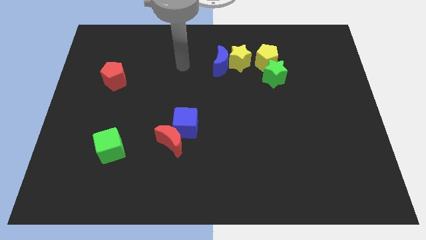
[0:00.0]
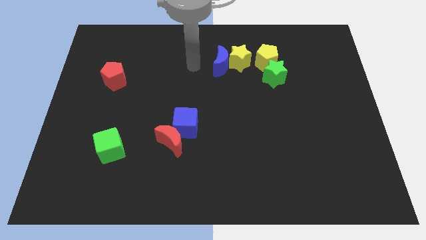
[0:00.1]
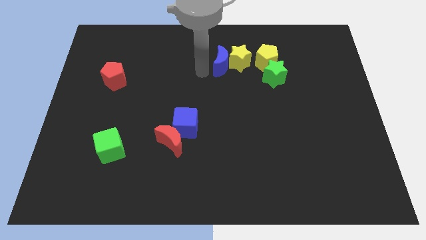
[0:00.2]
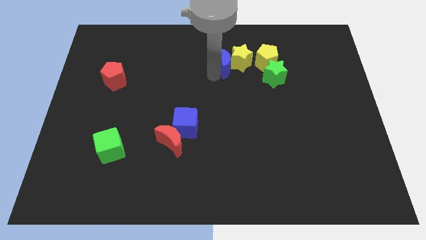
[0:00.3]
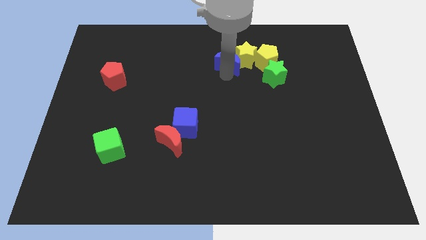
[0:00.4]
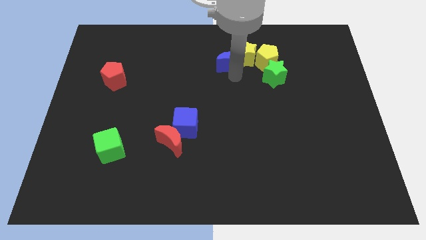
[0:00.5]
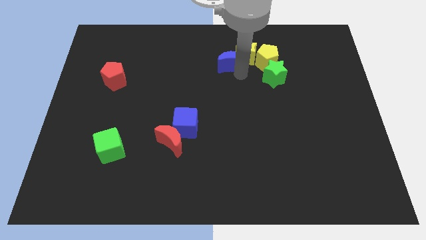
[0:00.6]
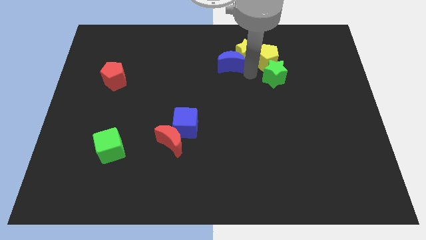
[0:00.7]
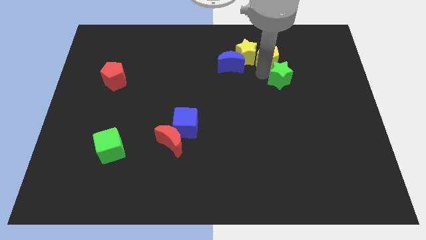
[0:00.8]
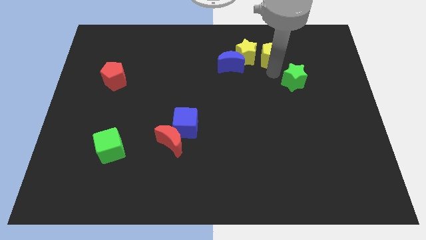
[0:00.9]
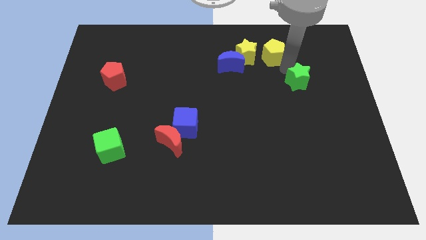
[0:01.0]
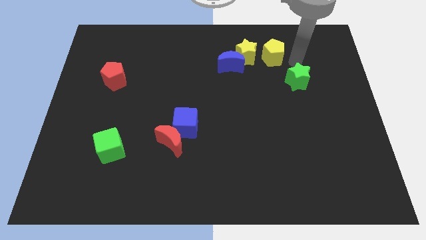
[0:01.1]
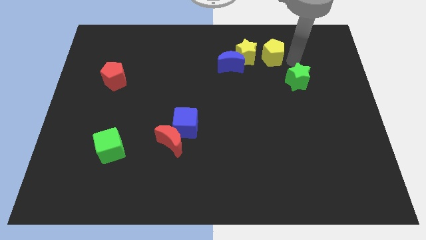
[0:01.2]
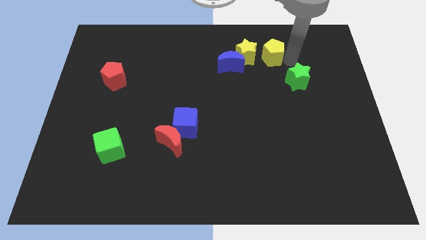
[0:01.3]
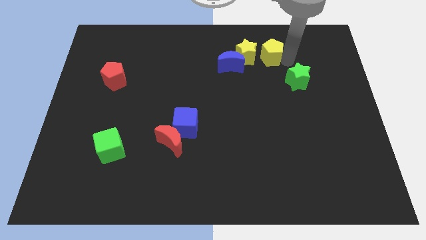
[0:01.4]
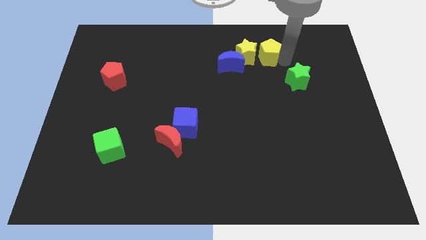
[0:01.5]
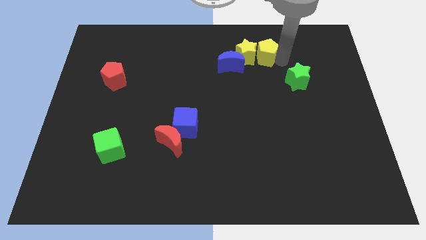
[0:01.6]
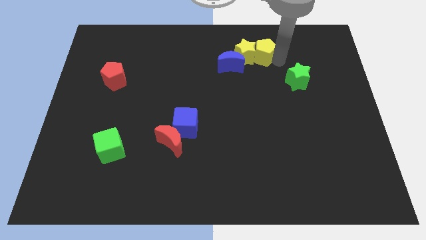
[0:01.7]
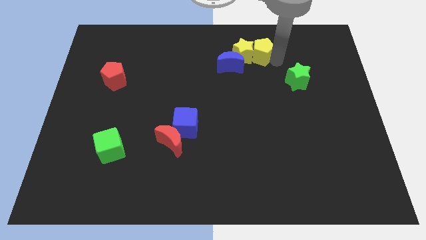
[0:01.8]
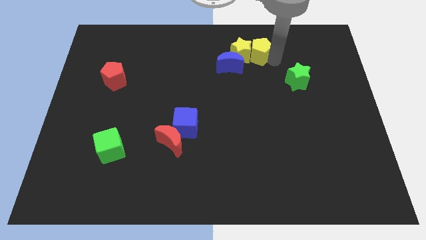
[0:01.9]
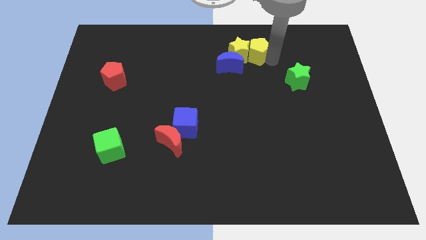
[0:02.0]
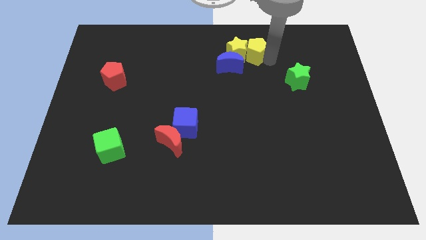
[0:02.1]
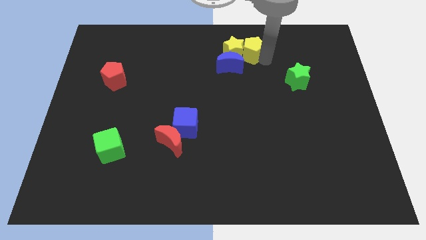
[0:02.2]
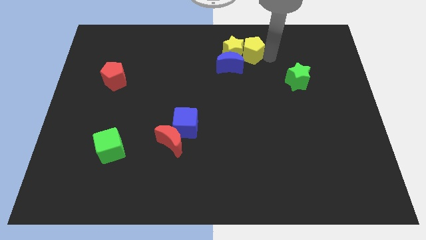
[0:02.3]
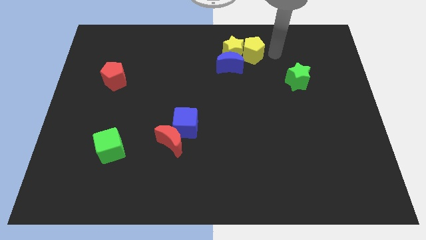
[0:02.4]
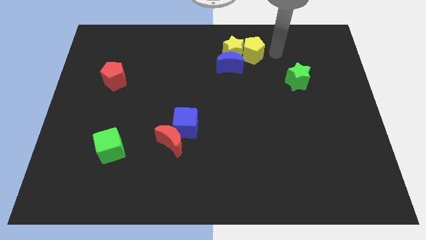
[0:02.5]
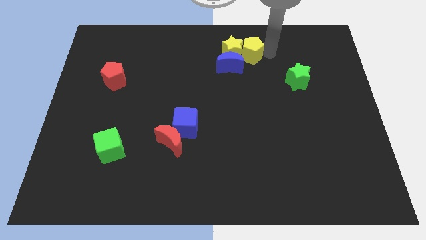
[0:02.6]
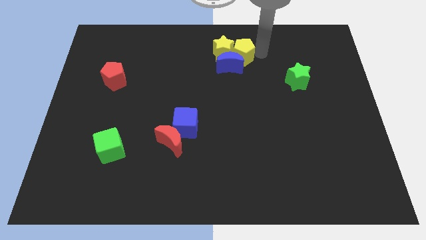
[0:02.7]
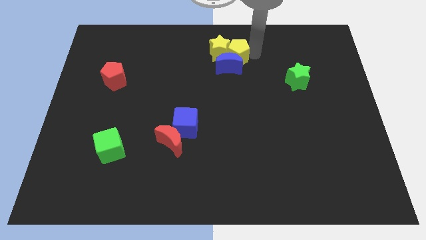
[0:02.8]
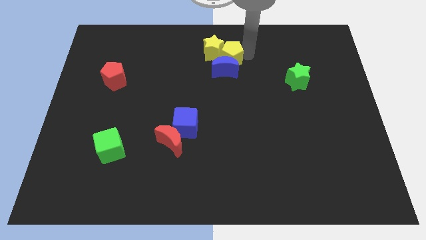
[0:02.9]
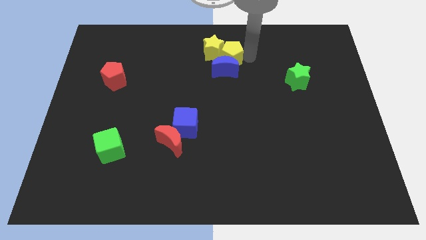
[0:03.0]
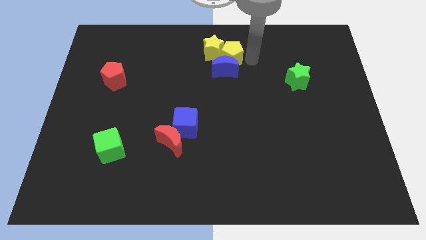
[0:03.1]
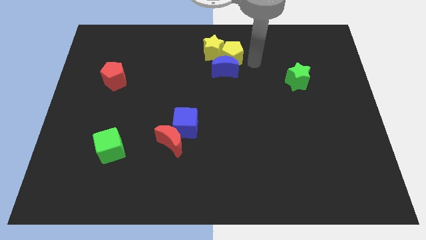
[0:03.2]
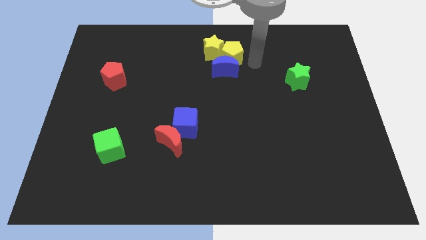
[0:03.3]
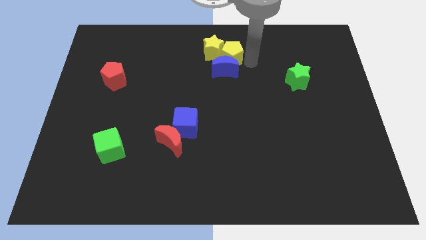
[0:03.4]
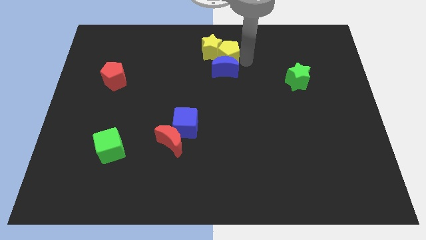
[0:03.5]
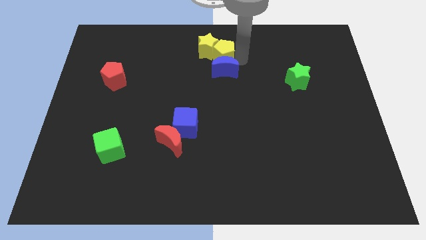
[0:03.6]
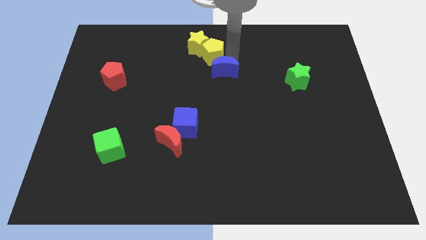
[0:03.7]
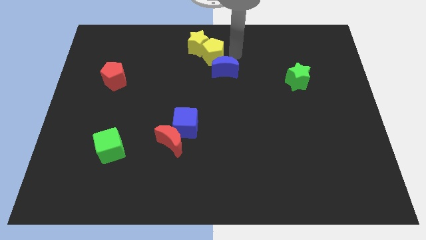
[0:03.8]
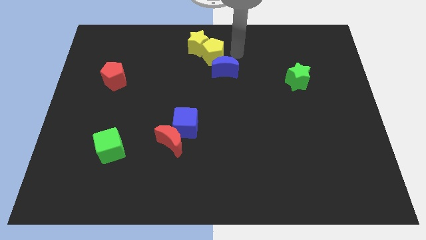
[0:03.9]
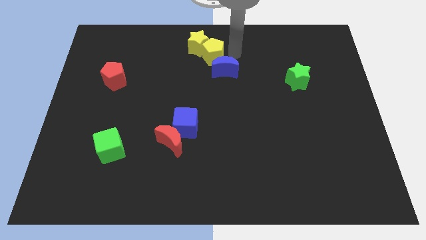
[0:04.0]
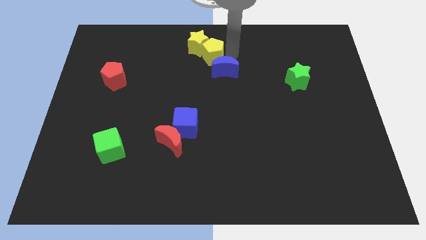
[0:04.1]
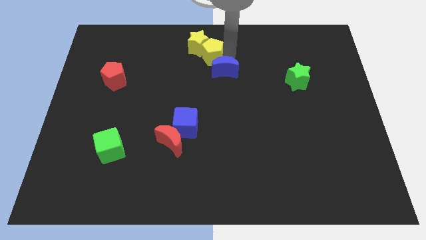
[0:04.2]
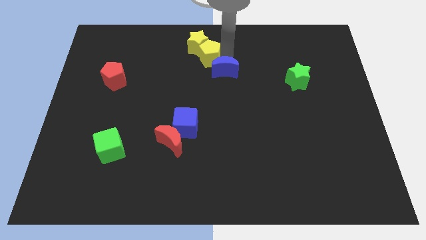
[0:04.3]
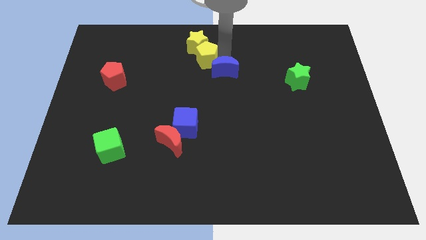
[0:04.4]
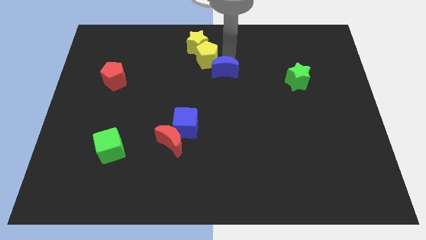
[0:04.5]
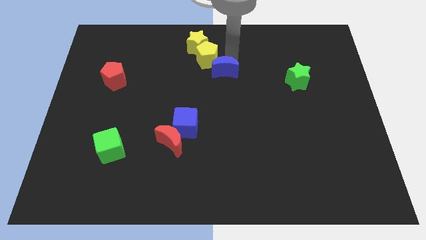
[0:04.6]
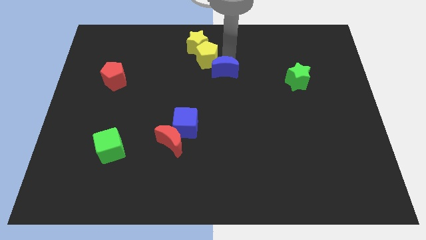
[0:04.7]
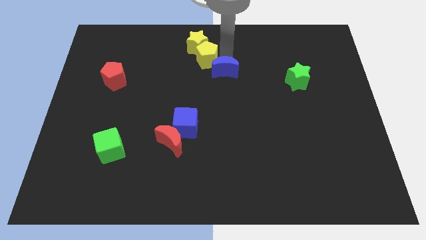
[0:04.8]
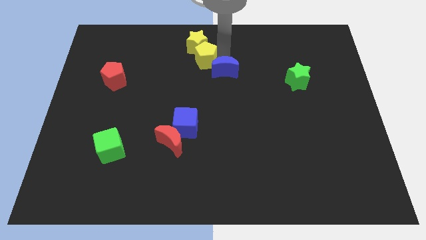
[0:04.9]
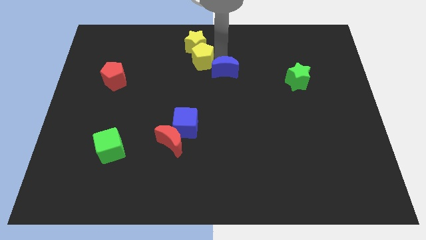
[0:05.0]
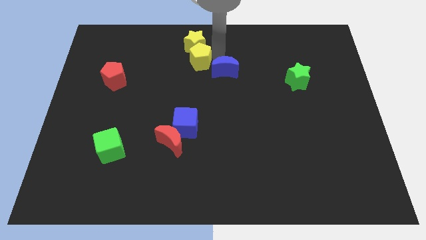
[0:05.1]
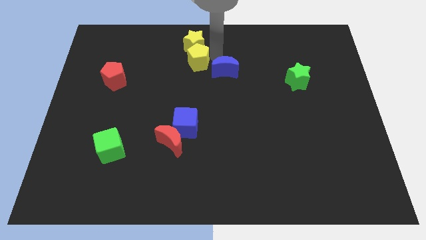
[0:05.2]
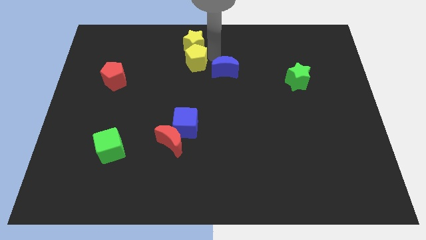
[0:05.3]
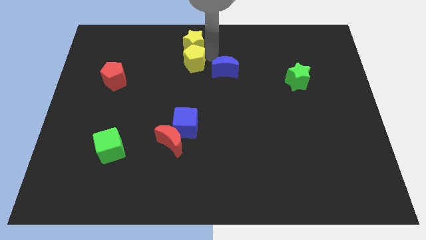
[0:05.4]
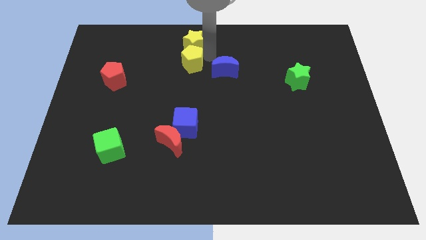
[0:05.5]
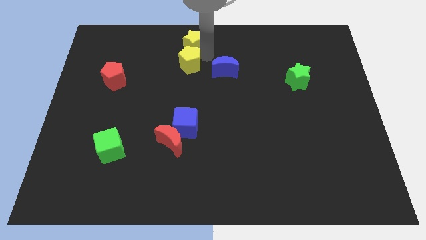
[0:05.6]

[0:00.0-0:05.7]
move the yellow pentagon left

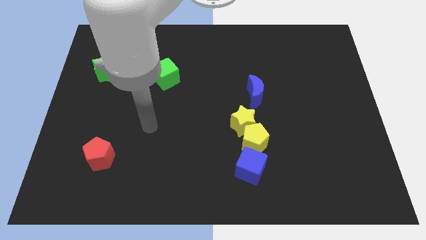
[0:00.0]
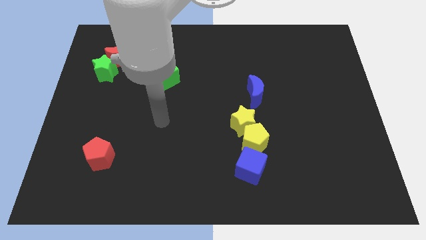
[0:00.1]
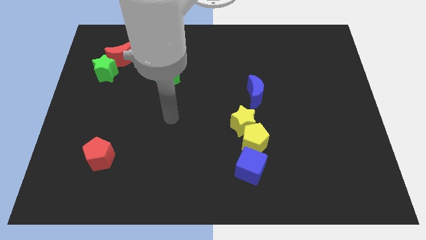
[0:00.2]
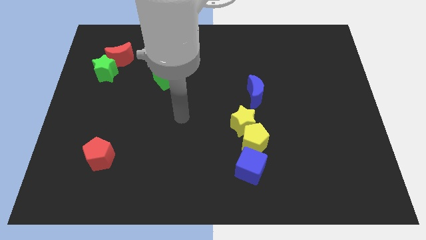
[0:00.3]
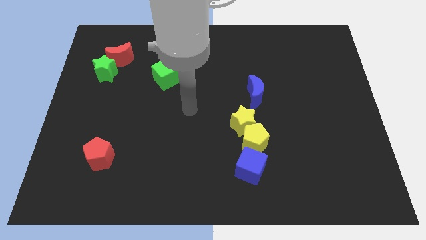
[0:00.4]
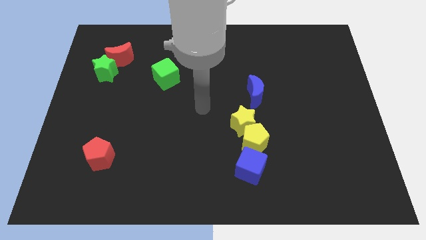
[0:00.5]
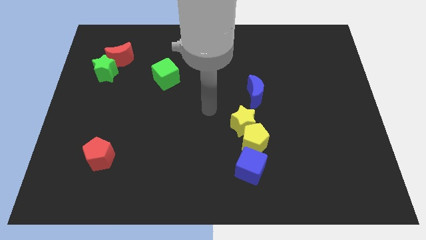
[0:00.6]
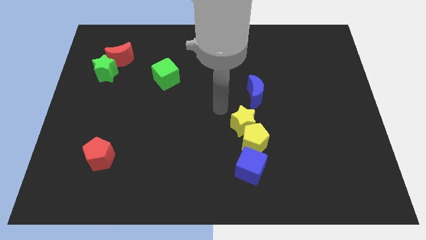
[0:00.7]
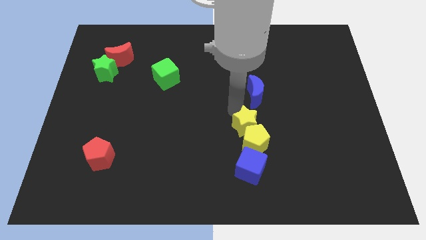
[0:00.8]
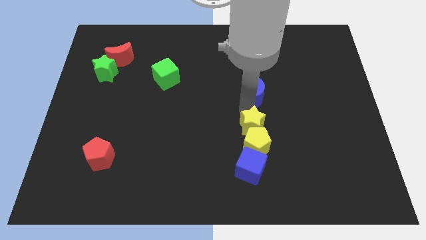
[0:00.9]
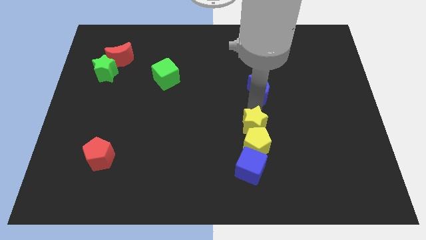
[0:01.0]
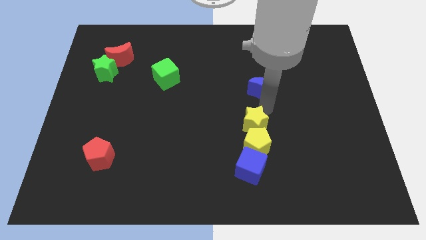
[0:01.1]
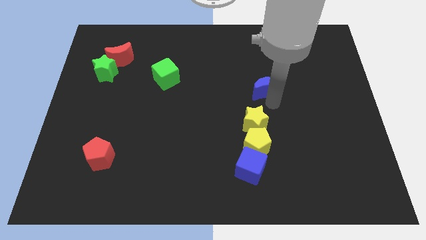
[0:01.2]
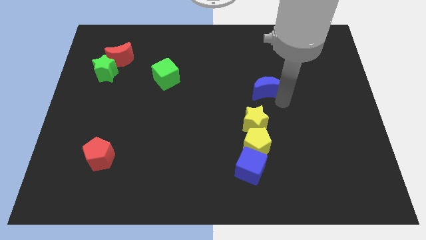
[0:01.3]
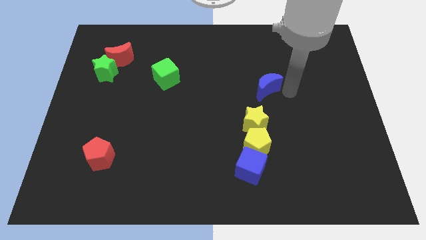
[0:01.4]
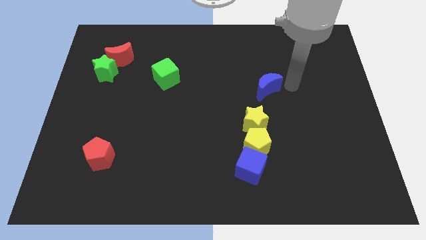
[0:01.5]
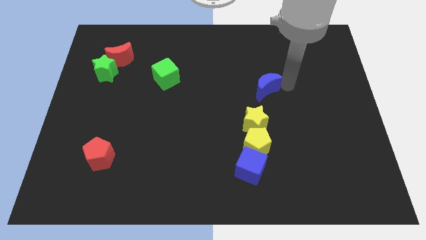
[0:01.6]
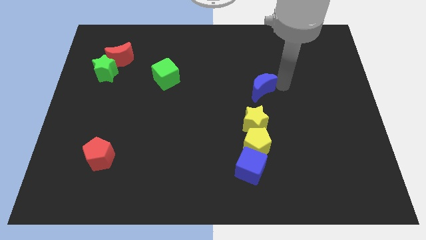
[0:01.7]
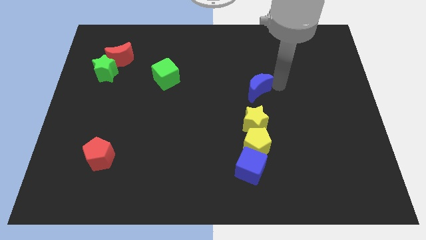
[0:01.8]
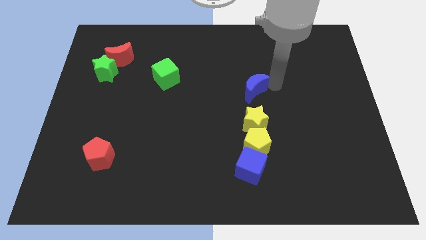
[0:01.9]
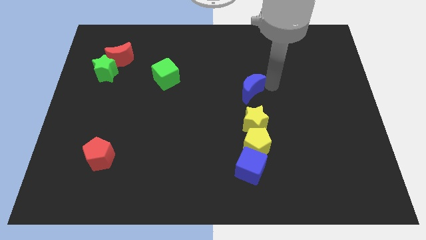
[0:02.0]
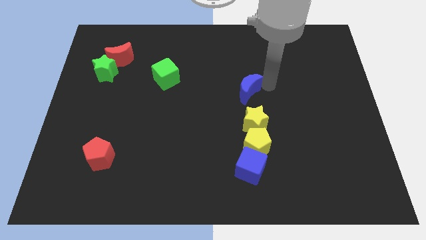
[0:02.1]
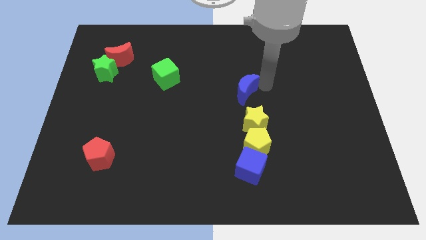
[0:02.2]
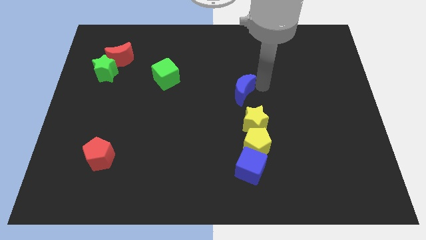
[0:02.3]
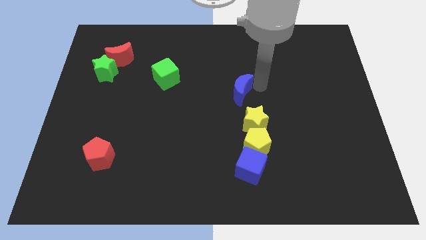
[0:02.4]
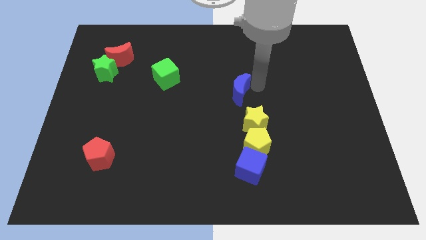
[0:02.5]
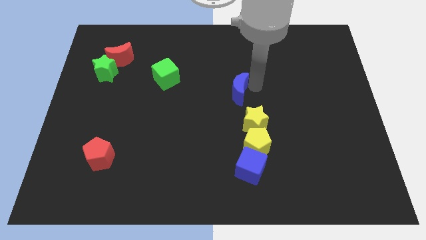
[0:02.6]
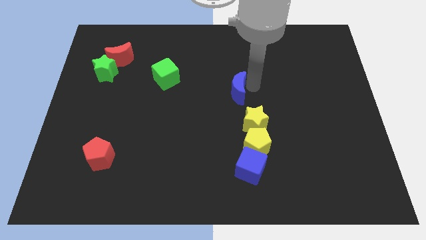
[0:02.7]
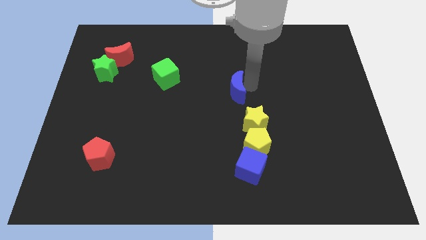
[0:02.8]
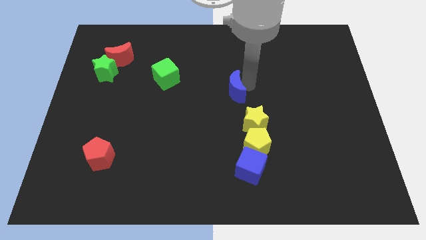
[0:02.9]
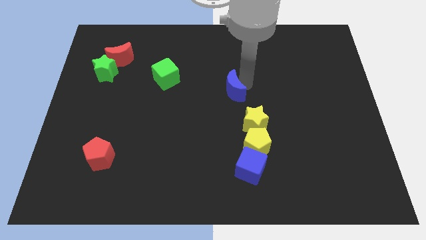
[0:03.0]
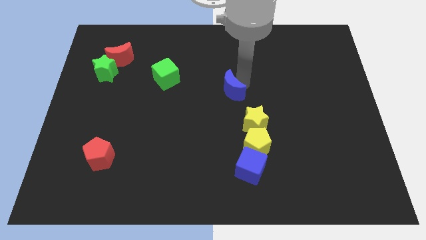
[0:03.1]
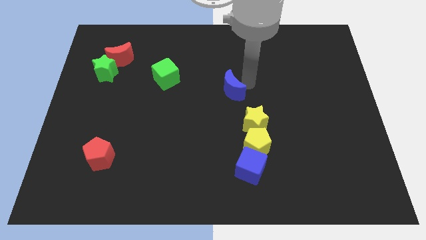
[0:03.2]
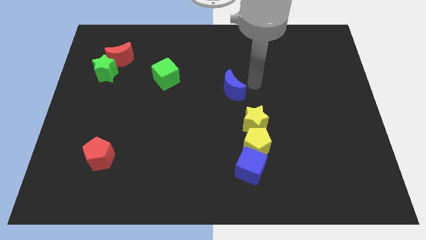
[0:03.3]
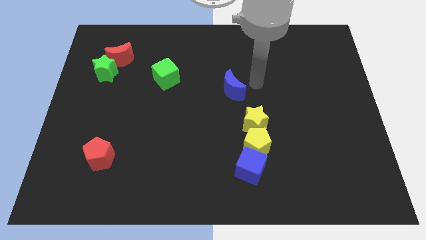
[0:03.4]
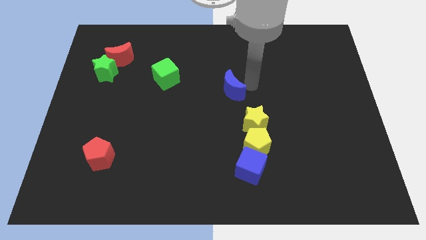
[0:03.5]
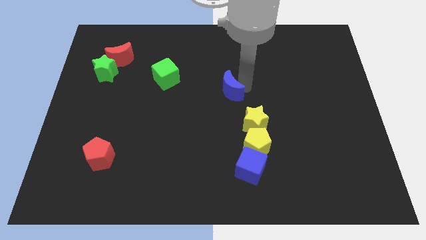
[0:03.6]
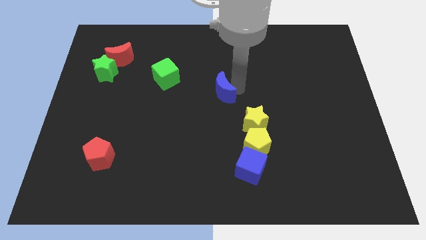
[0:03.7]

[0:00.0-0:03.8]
slightly push the blue moon left
